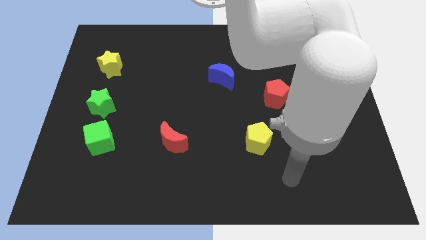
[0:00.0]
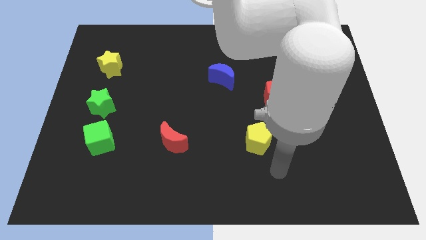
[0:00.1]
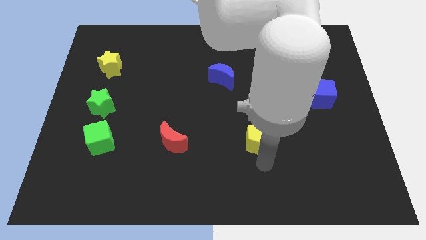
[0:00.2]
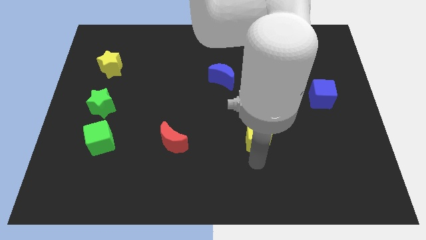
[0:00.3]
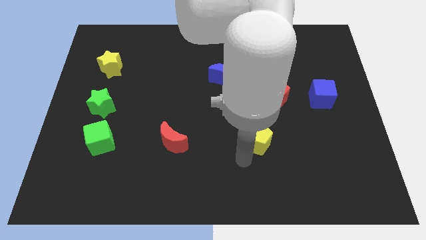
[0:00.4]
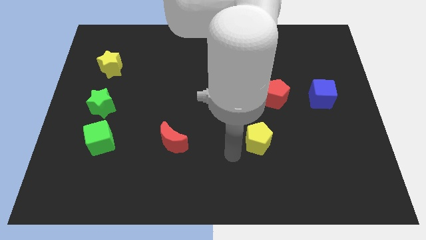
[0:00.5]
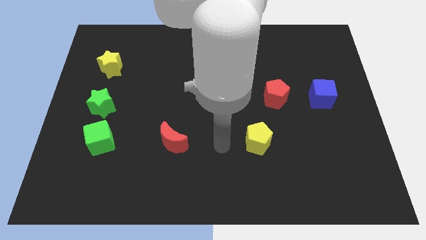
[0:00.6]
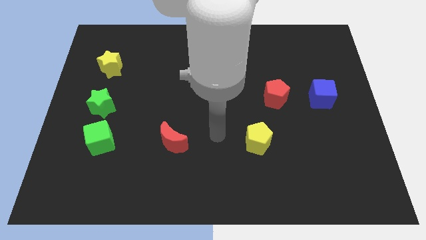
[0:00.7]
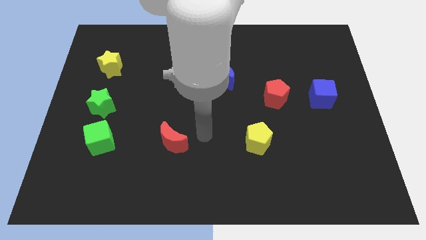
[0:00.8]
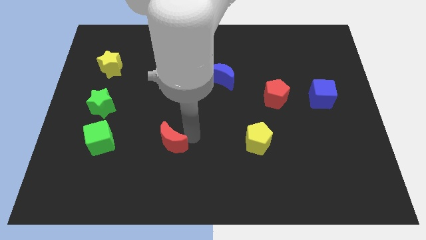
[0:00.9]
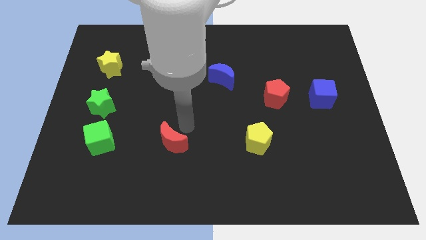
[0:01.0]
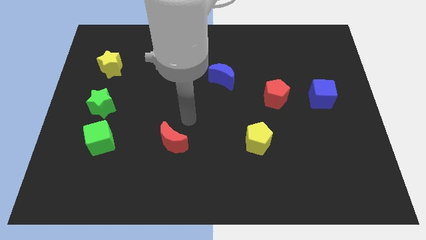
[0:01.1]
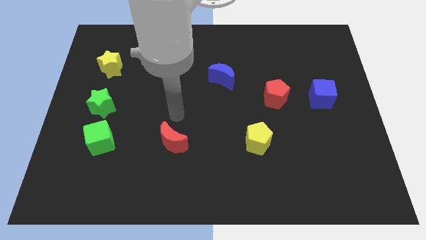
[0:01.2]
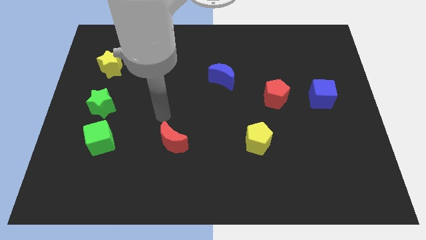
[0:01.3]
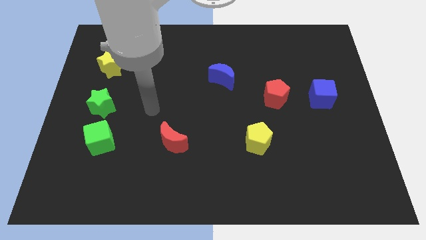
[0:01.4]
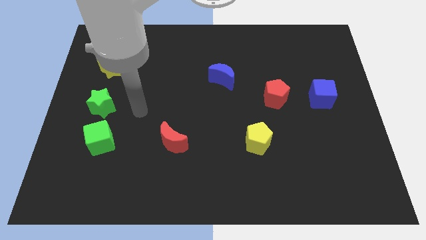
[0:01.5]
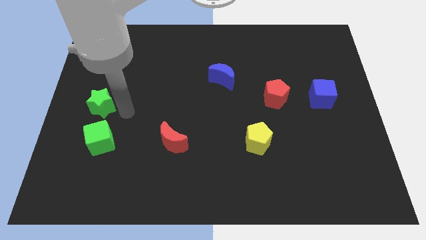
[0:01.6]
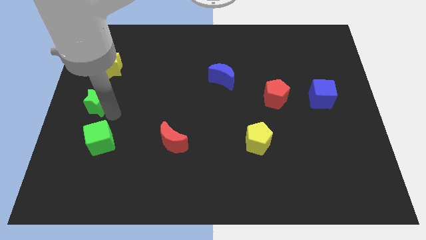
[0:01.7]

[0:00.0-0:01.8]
separate the green cube from the green star

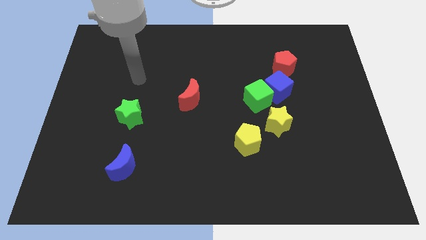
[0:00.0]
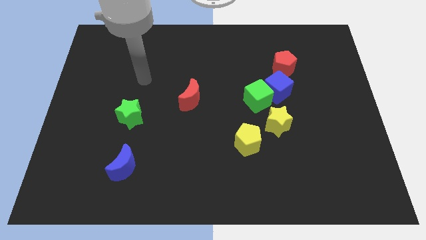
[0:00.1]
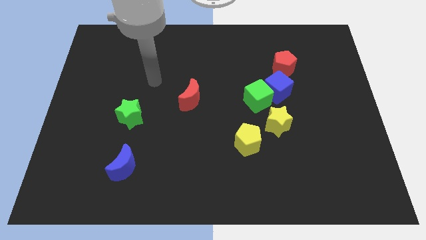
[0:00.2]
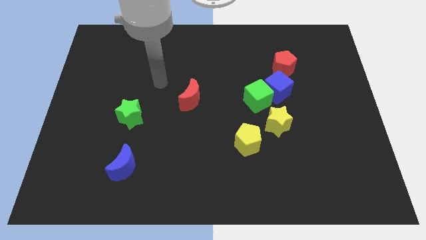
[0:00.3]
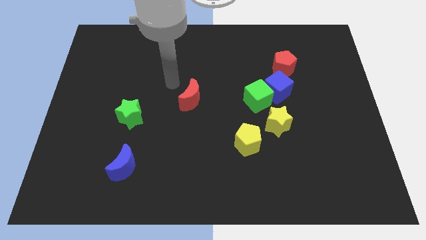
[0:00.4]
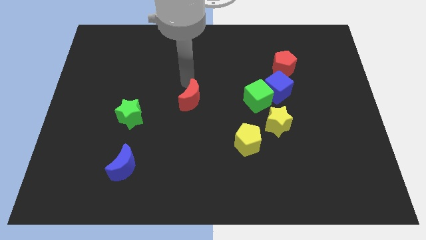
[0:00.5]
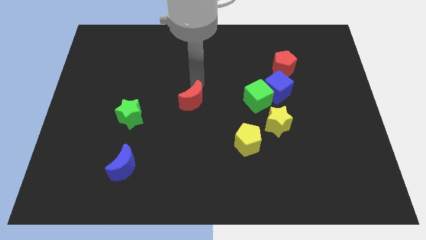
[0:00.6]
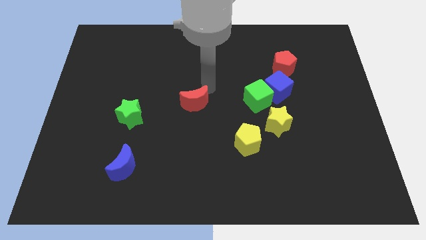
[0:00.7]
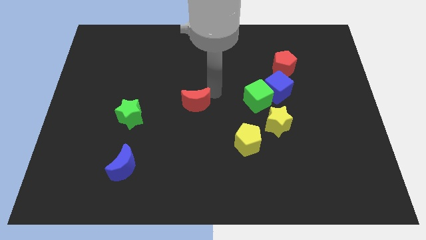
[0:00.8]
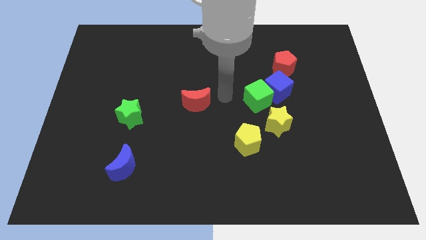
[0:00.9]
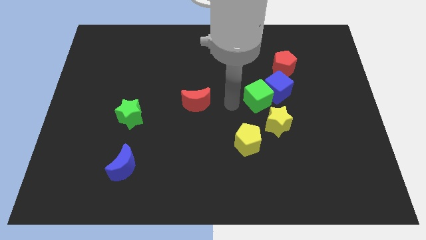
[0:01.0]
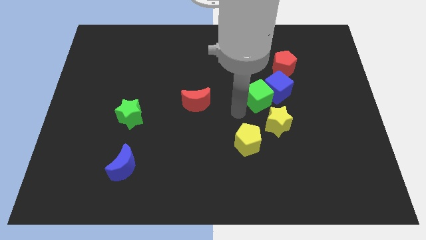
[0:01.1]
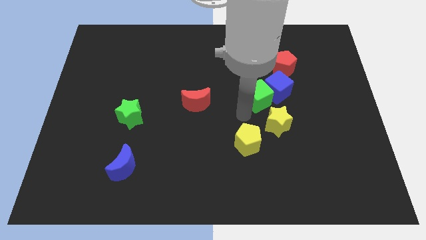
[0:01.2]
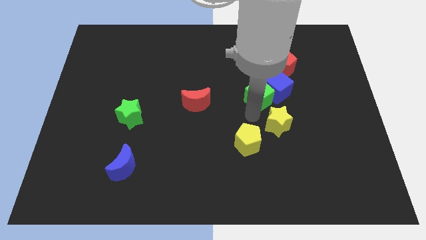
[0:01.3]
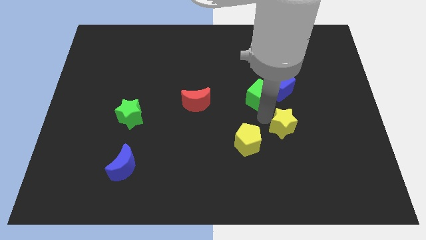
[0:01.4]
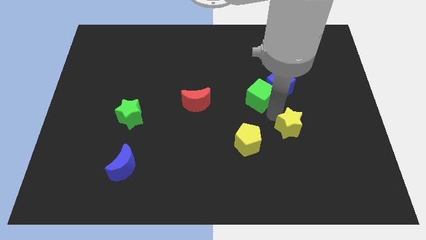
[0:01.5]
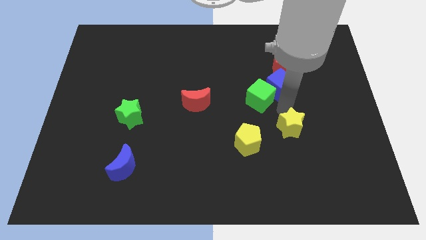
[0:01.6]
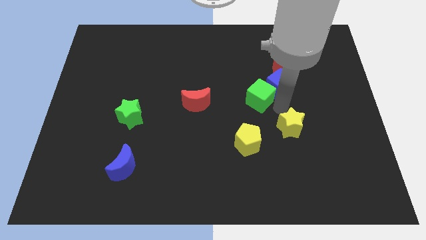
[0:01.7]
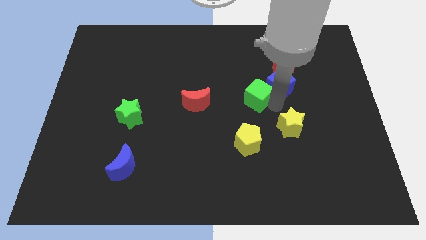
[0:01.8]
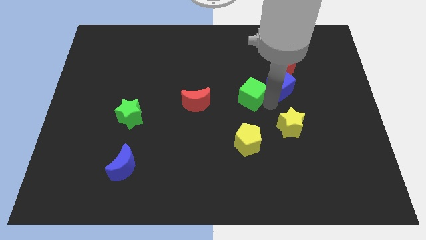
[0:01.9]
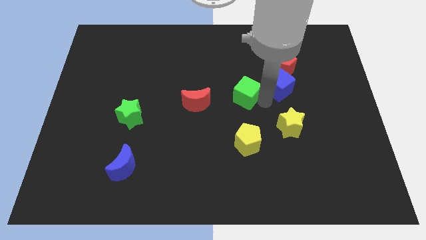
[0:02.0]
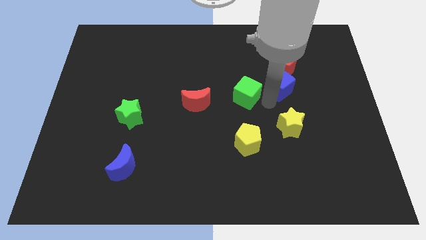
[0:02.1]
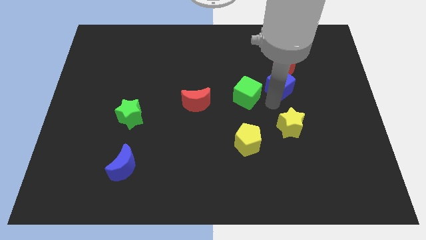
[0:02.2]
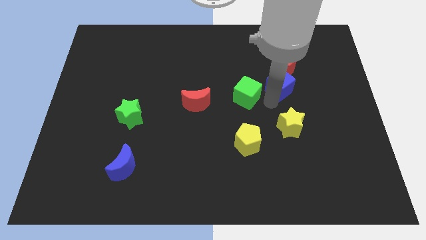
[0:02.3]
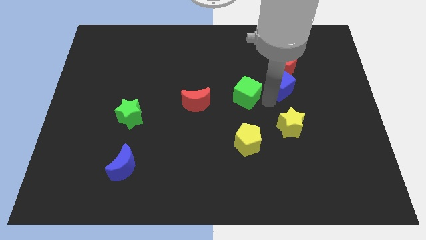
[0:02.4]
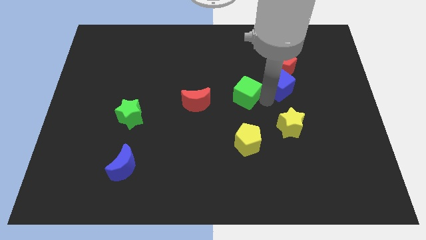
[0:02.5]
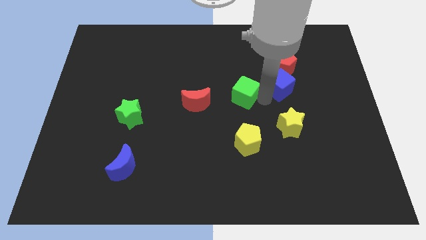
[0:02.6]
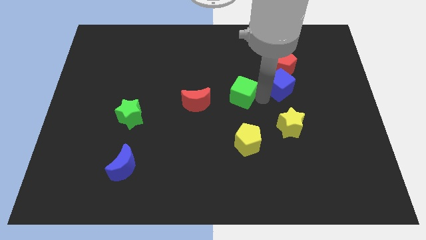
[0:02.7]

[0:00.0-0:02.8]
pull the green cube apart from the blue cube and yellow star

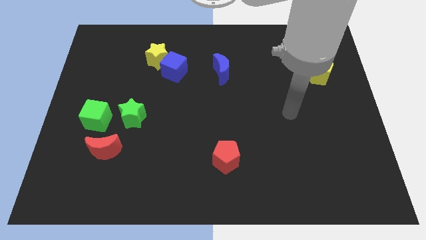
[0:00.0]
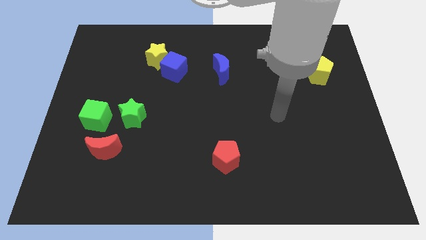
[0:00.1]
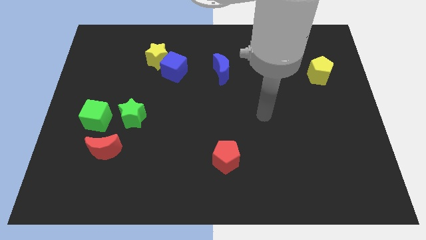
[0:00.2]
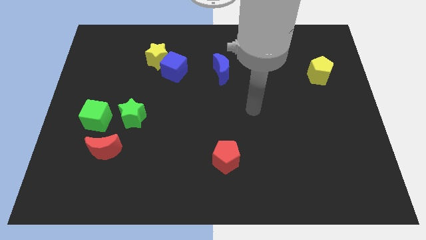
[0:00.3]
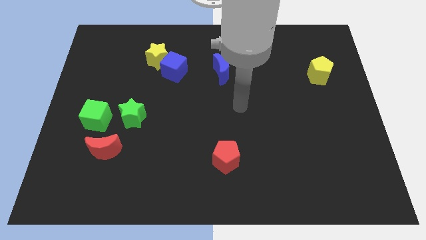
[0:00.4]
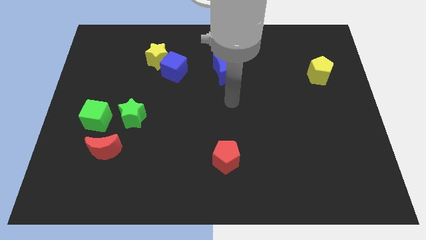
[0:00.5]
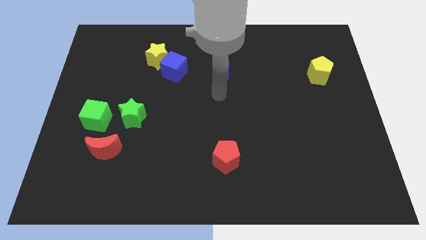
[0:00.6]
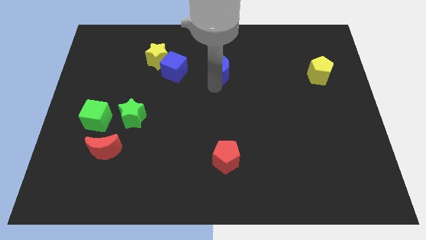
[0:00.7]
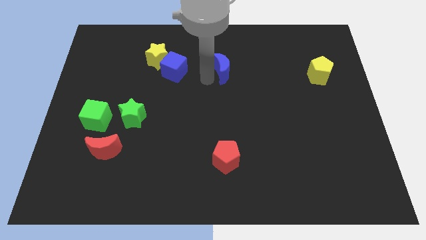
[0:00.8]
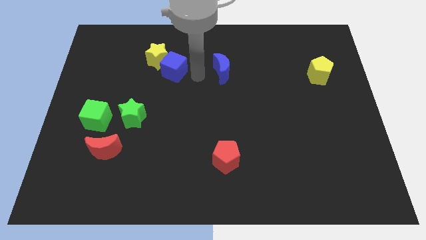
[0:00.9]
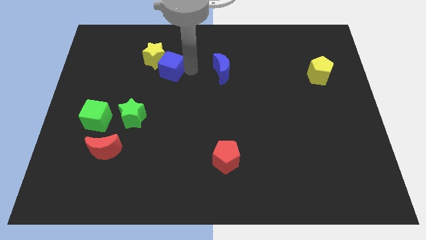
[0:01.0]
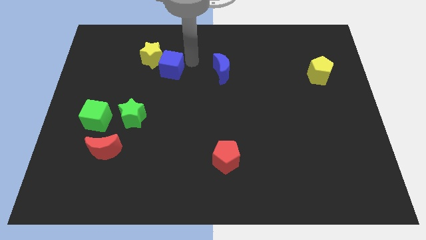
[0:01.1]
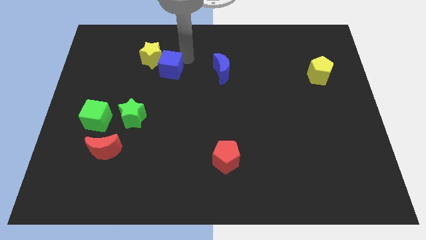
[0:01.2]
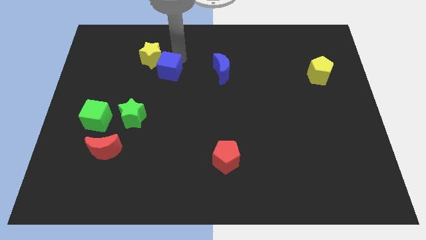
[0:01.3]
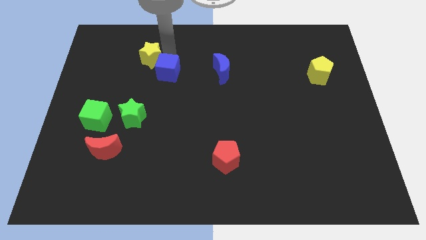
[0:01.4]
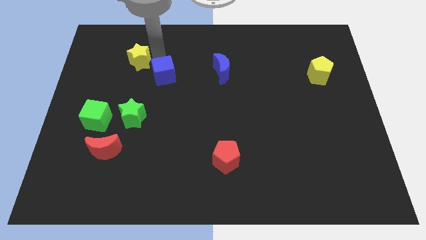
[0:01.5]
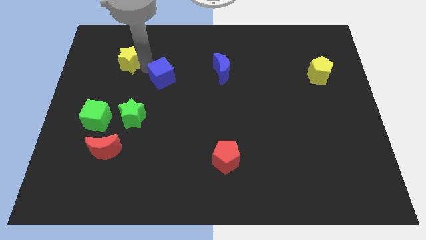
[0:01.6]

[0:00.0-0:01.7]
move the blue cube away from the yellow star

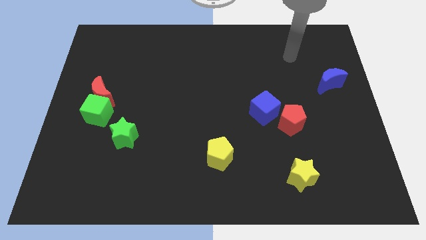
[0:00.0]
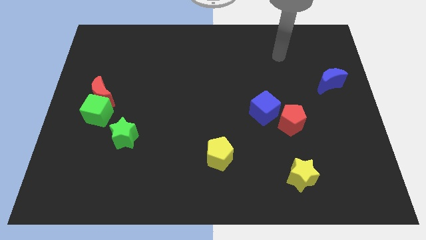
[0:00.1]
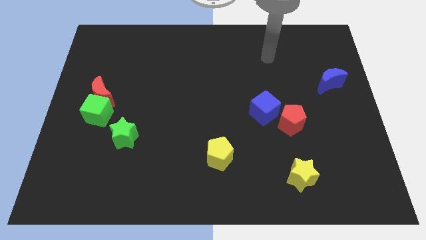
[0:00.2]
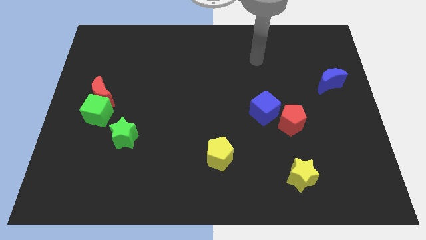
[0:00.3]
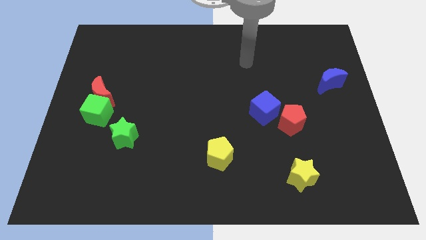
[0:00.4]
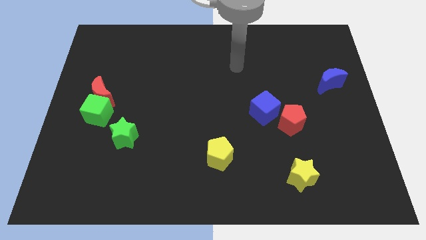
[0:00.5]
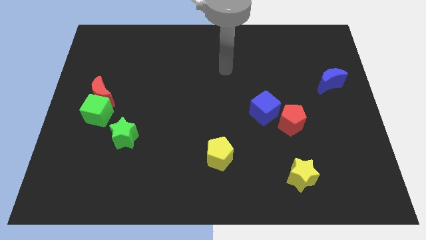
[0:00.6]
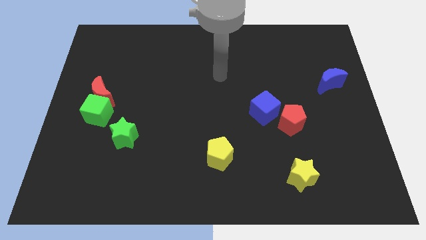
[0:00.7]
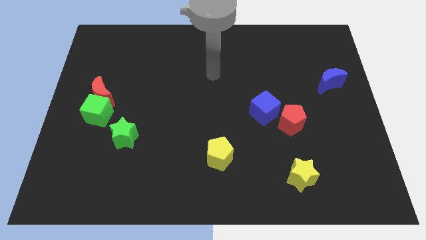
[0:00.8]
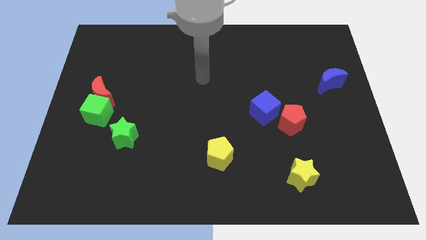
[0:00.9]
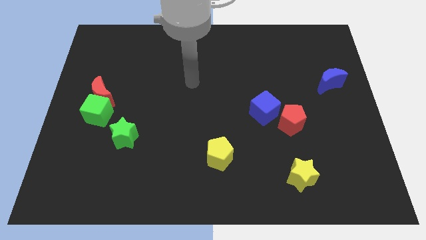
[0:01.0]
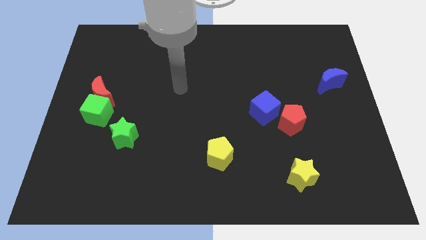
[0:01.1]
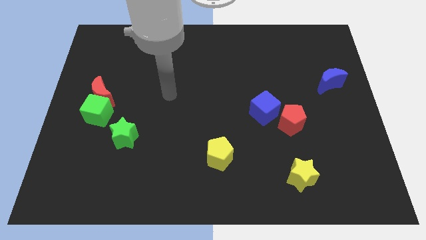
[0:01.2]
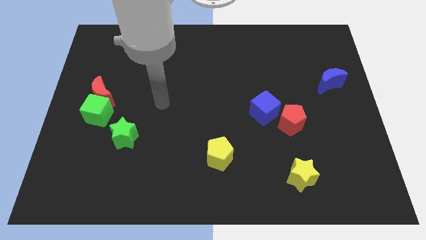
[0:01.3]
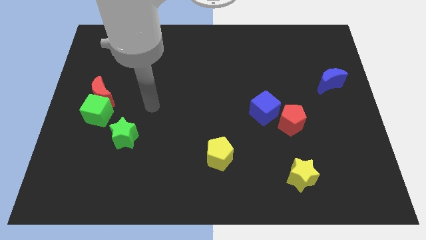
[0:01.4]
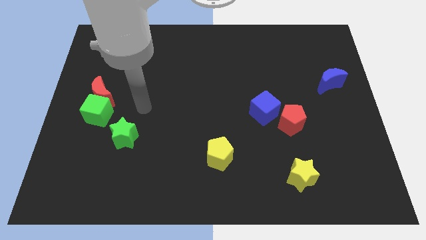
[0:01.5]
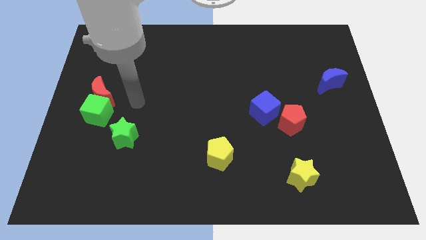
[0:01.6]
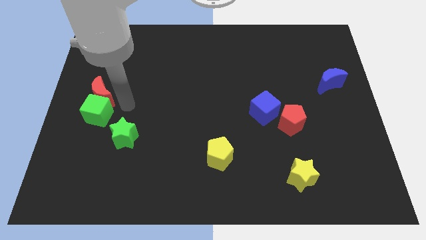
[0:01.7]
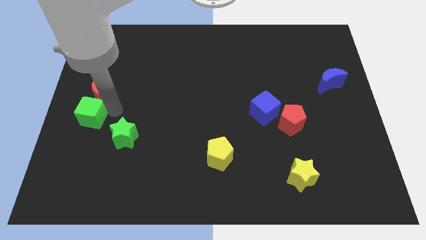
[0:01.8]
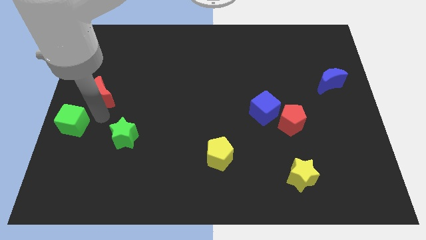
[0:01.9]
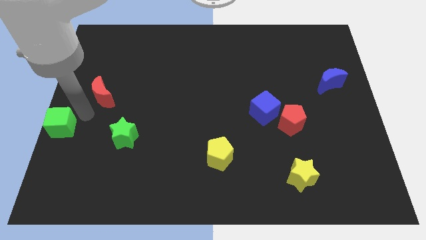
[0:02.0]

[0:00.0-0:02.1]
pull the red moon apart from the green cube

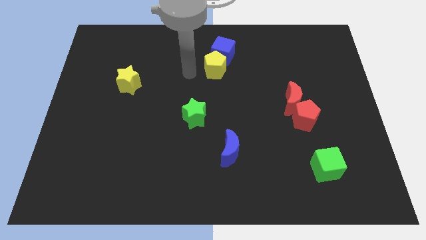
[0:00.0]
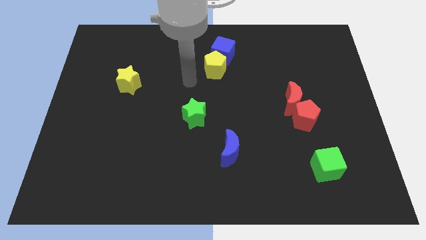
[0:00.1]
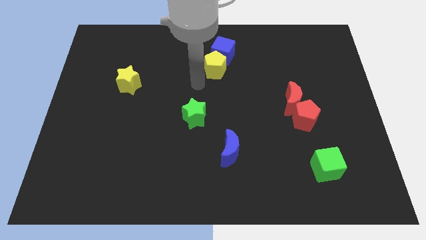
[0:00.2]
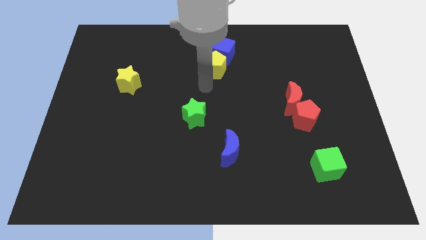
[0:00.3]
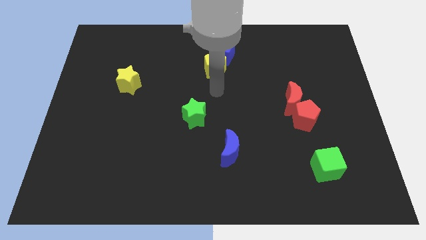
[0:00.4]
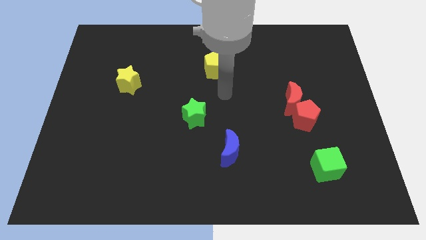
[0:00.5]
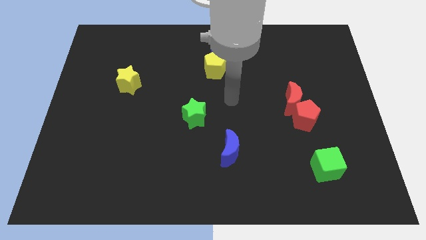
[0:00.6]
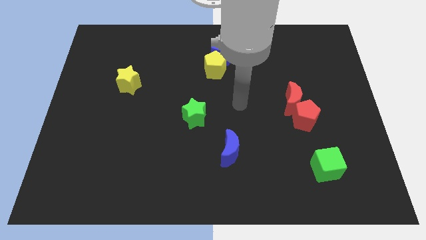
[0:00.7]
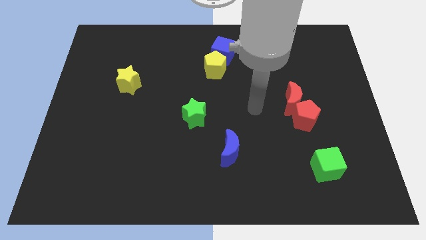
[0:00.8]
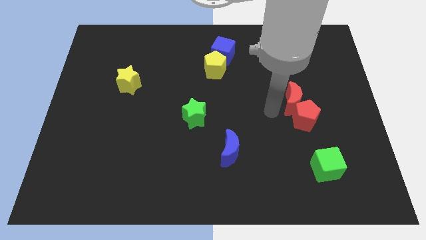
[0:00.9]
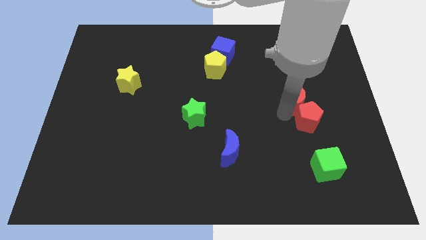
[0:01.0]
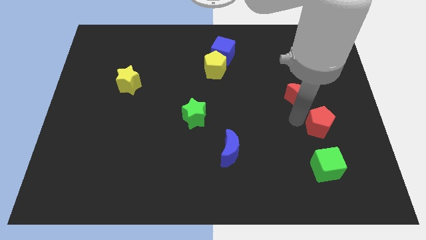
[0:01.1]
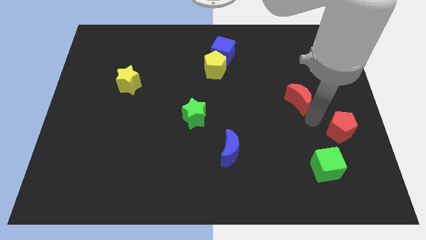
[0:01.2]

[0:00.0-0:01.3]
separate the red moon from the red pentagon
